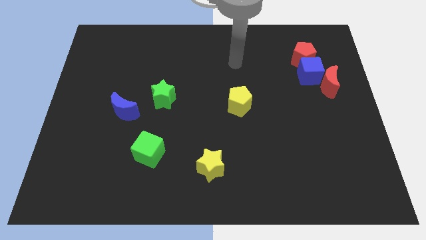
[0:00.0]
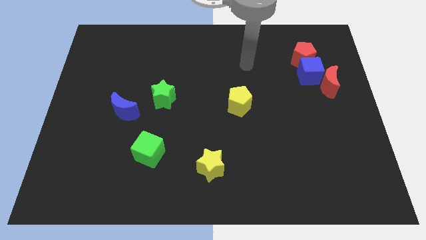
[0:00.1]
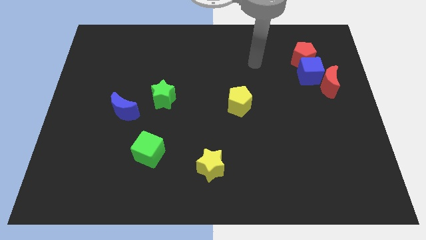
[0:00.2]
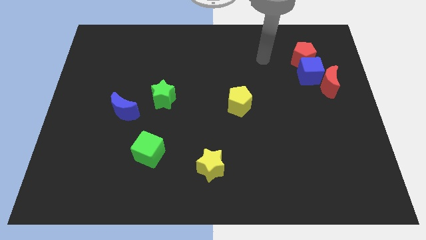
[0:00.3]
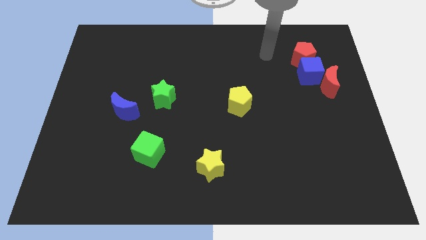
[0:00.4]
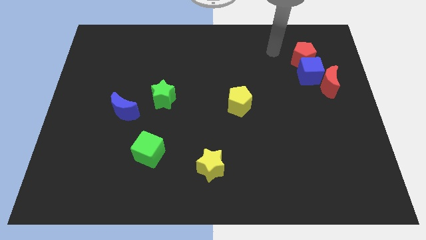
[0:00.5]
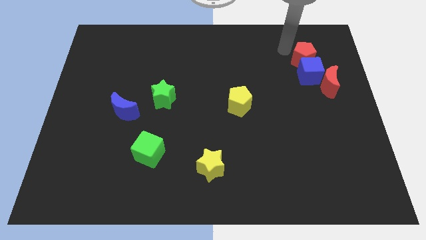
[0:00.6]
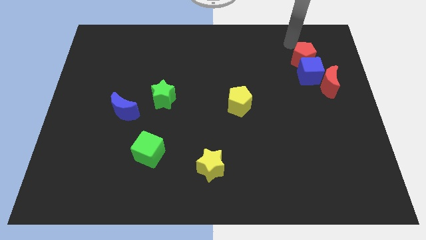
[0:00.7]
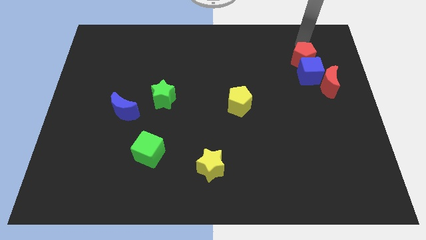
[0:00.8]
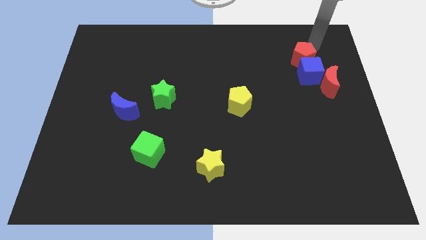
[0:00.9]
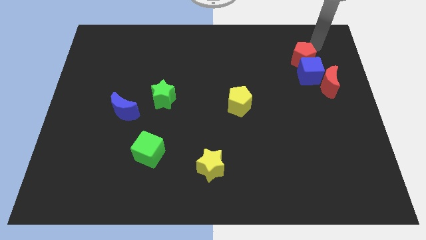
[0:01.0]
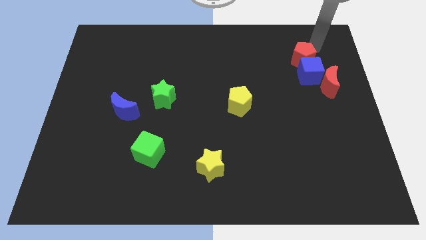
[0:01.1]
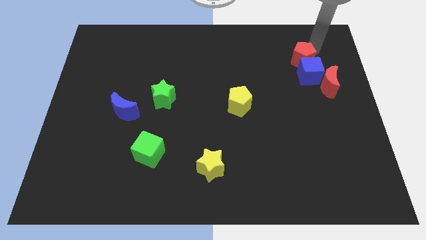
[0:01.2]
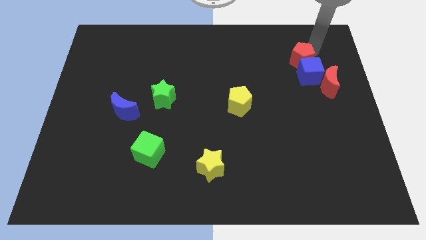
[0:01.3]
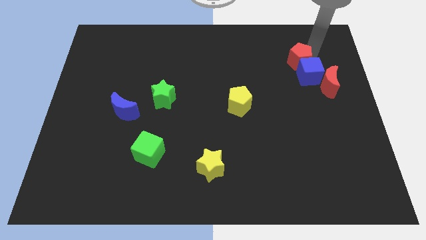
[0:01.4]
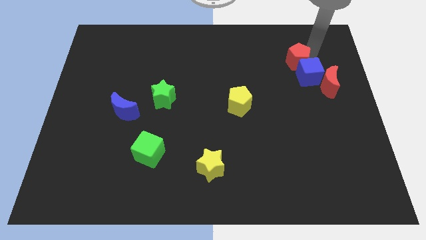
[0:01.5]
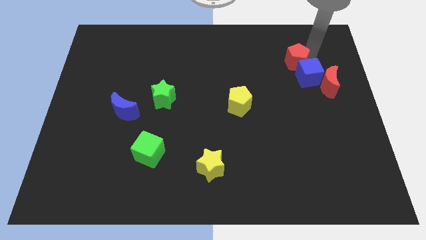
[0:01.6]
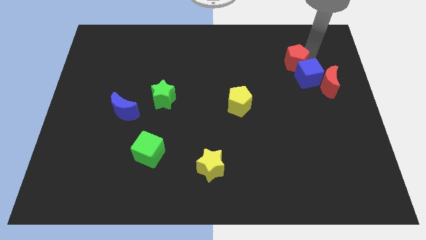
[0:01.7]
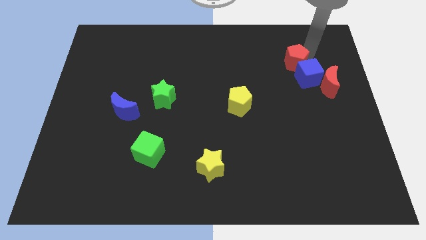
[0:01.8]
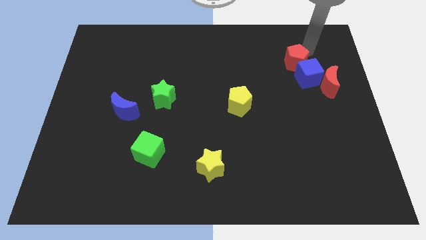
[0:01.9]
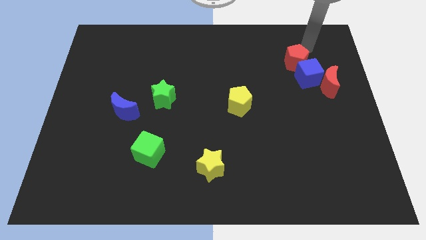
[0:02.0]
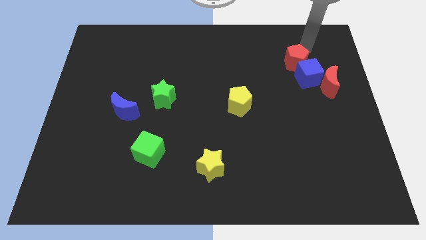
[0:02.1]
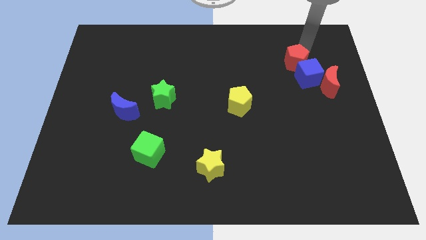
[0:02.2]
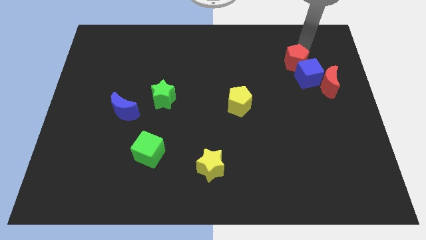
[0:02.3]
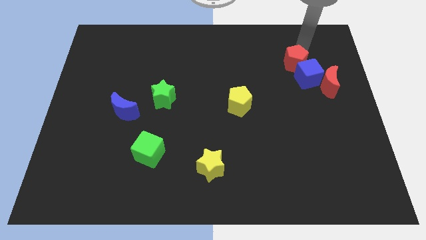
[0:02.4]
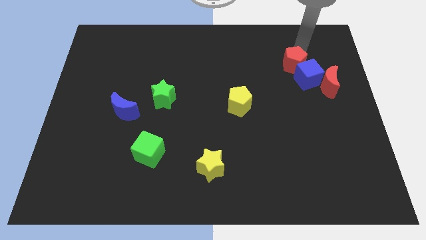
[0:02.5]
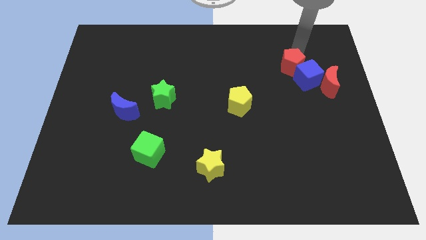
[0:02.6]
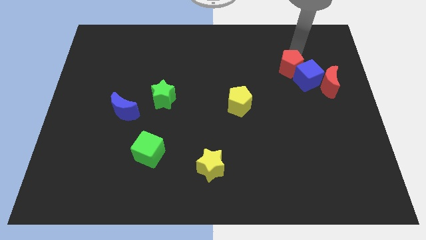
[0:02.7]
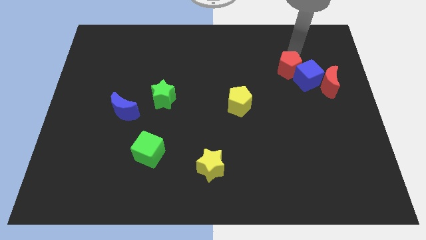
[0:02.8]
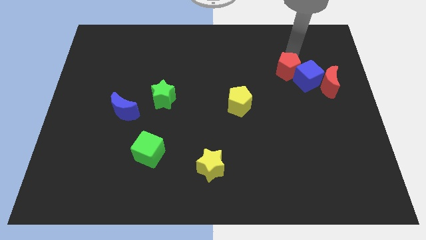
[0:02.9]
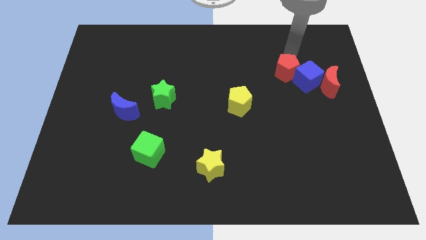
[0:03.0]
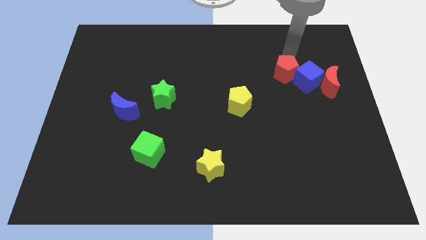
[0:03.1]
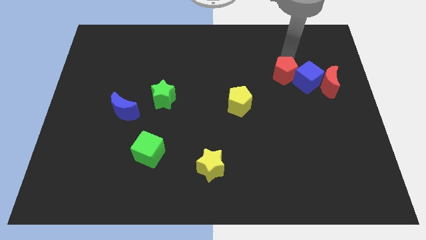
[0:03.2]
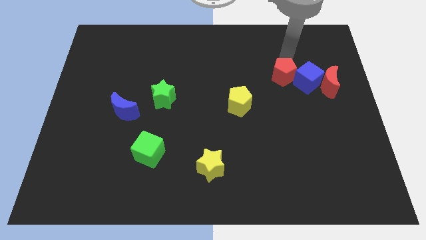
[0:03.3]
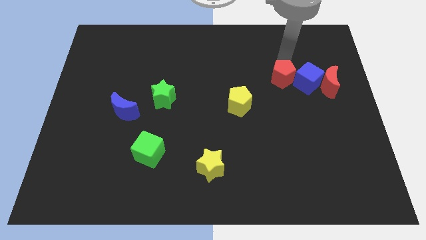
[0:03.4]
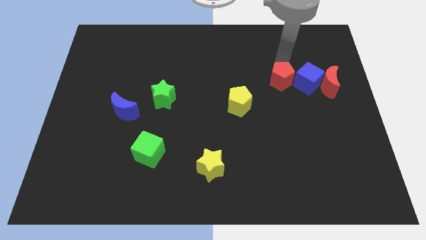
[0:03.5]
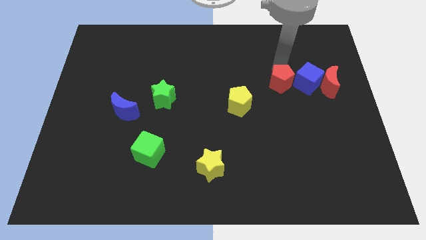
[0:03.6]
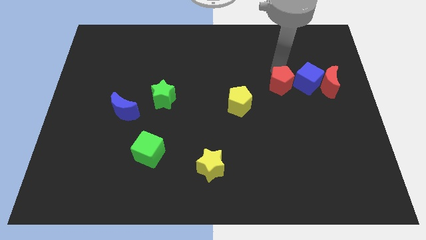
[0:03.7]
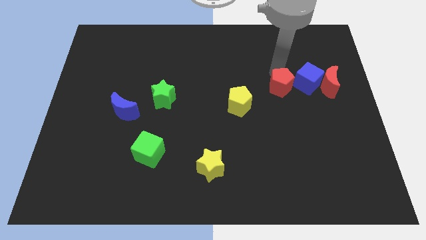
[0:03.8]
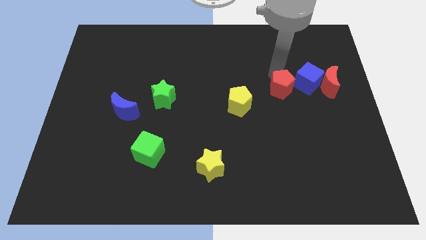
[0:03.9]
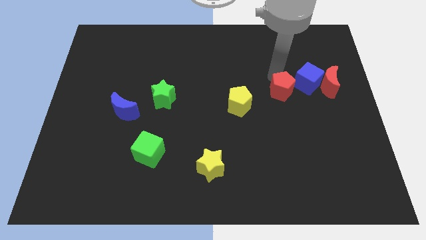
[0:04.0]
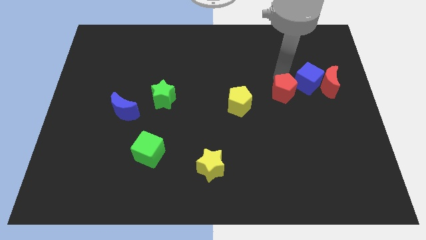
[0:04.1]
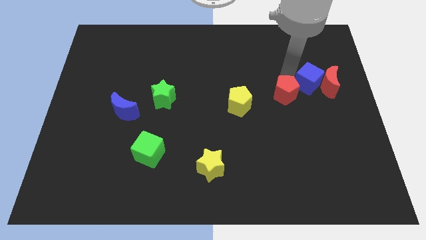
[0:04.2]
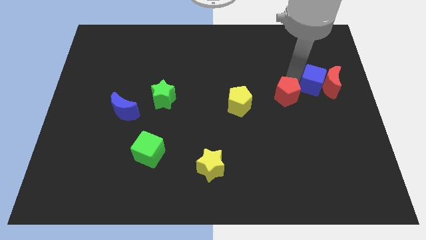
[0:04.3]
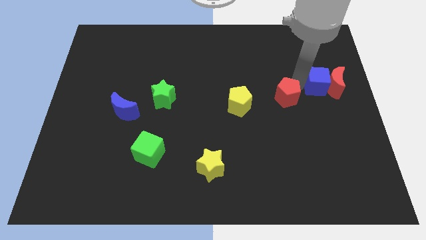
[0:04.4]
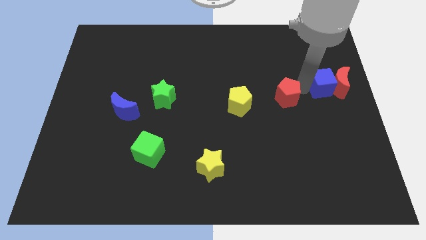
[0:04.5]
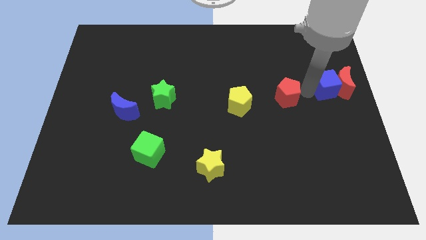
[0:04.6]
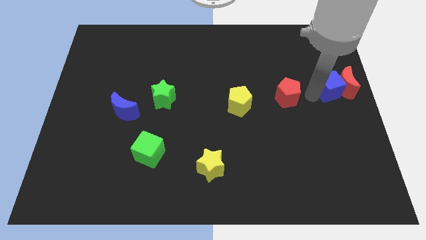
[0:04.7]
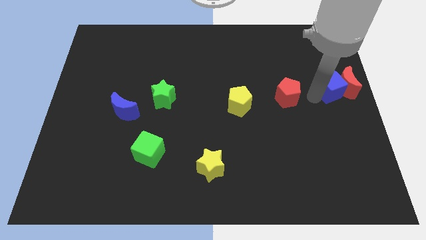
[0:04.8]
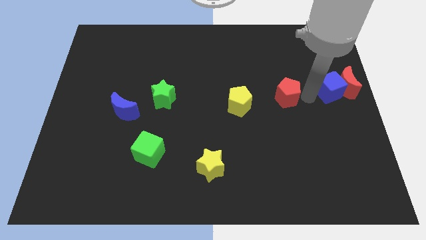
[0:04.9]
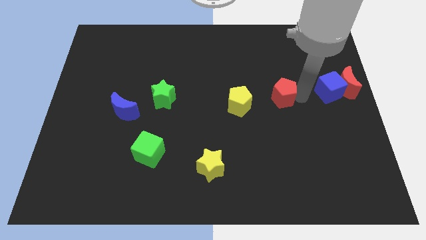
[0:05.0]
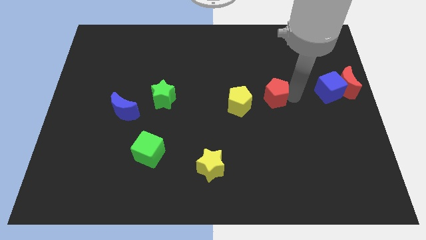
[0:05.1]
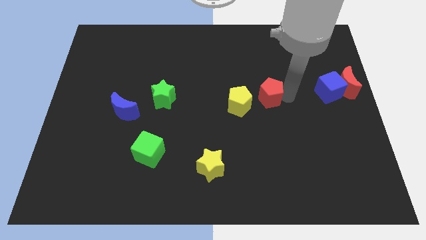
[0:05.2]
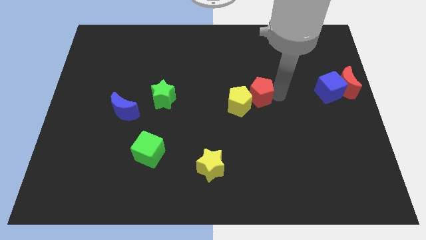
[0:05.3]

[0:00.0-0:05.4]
put the red pentagon to the yellow pentagon

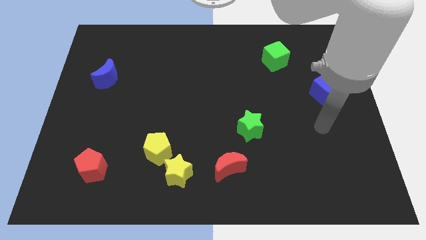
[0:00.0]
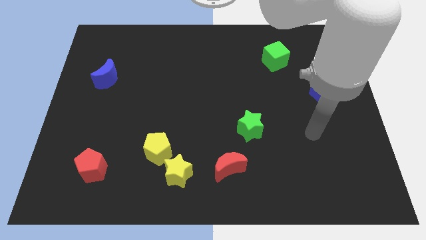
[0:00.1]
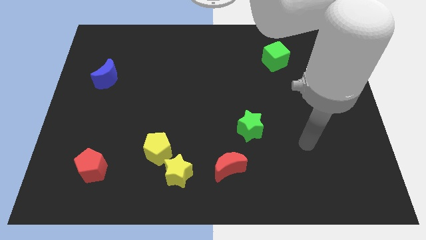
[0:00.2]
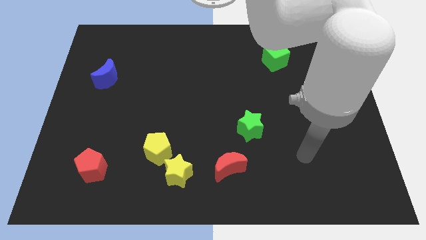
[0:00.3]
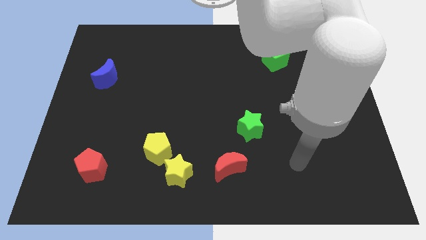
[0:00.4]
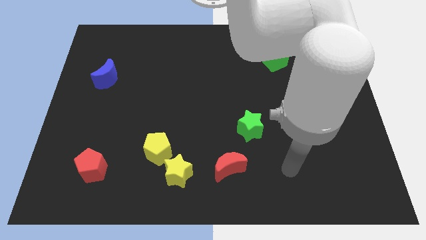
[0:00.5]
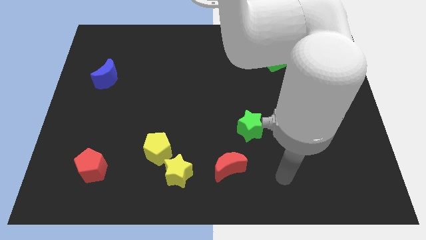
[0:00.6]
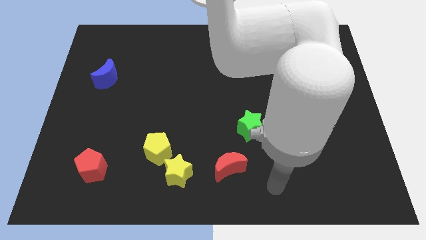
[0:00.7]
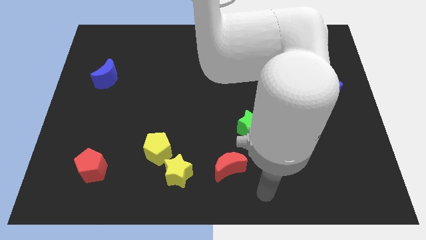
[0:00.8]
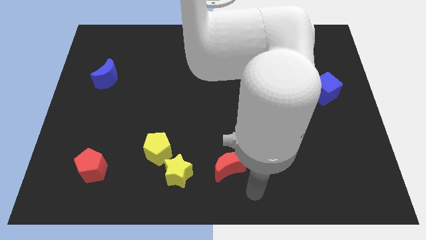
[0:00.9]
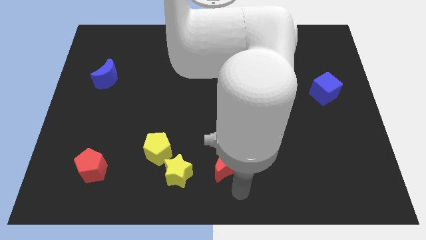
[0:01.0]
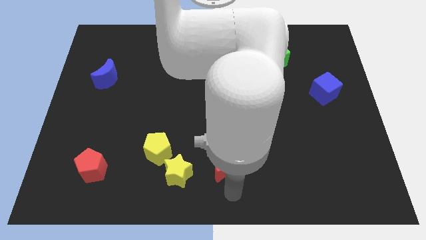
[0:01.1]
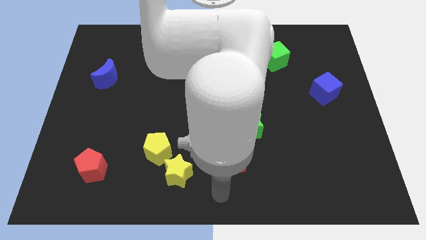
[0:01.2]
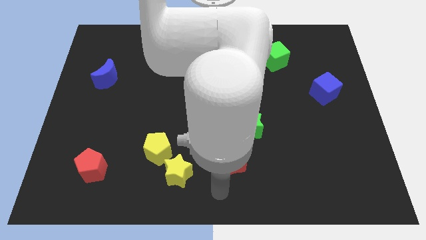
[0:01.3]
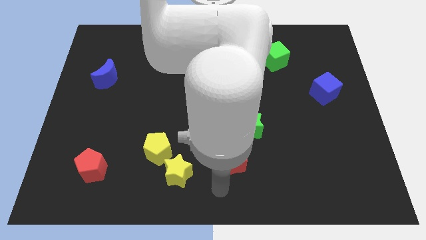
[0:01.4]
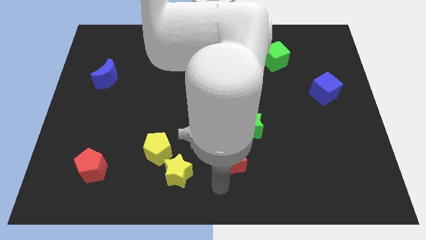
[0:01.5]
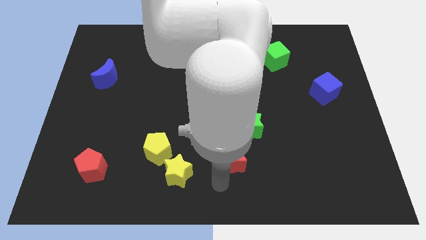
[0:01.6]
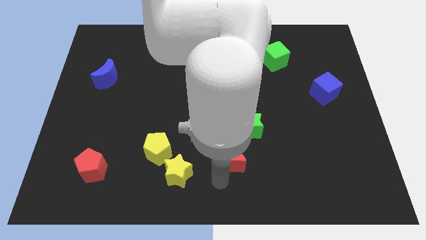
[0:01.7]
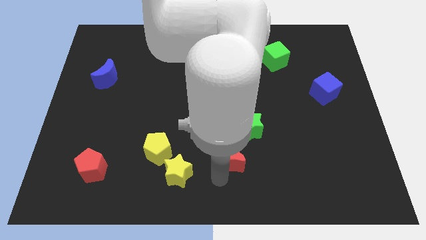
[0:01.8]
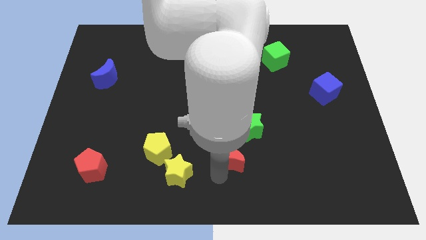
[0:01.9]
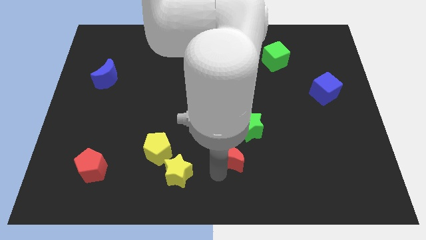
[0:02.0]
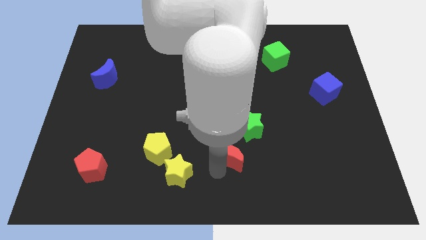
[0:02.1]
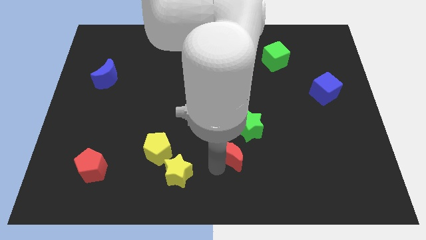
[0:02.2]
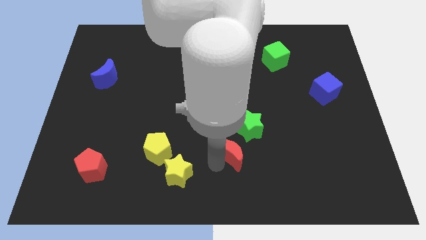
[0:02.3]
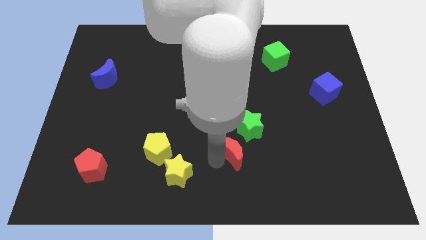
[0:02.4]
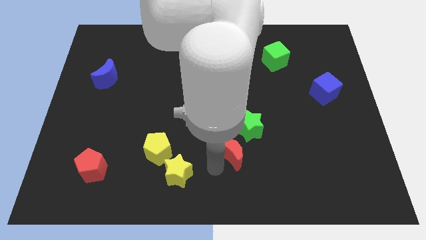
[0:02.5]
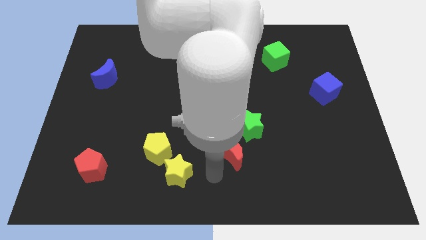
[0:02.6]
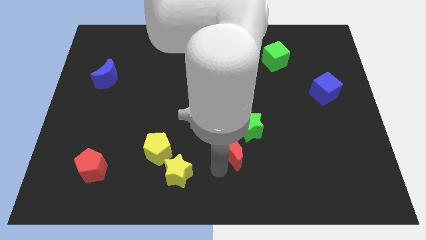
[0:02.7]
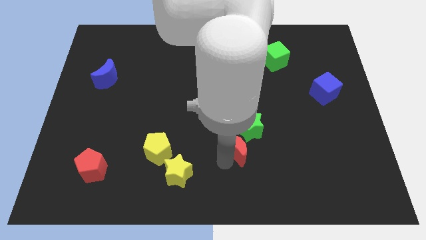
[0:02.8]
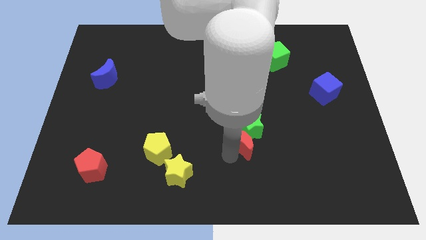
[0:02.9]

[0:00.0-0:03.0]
push the red moon to the green star
